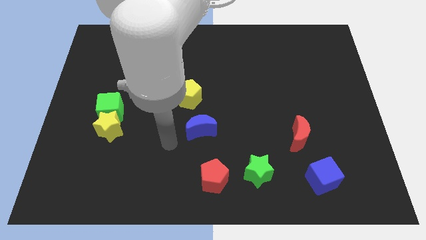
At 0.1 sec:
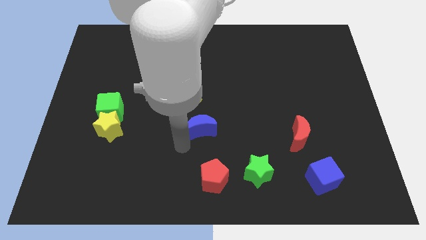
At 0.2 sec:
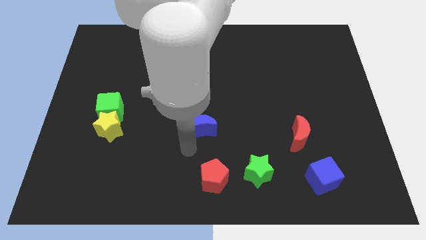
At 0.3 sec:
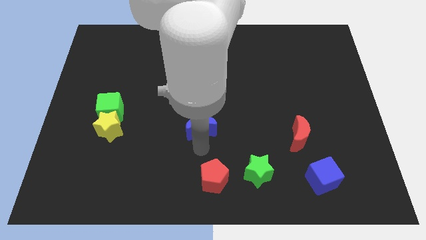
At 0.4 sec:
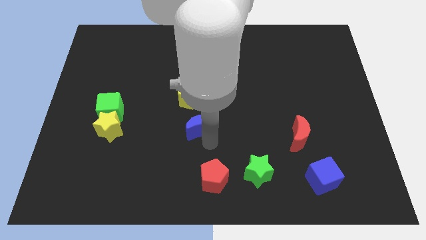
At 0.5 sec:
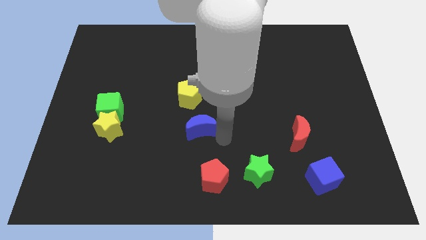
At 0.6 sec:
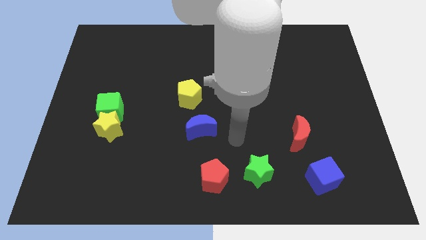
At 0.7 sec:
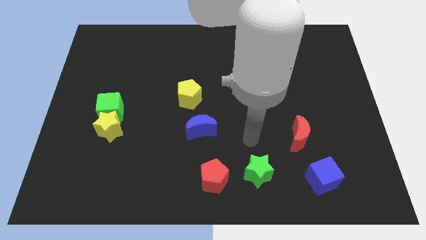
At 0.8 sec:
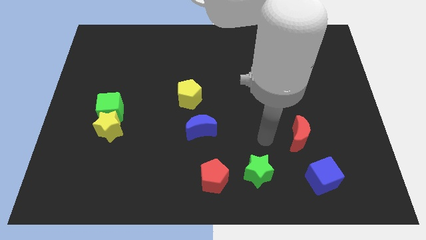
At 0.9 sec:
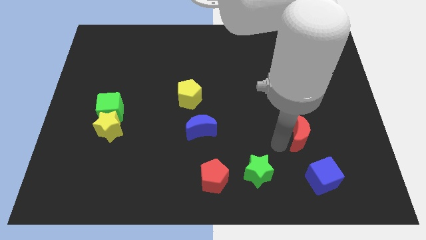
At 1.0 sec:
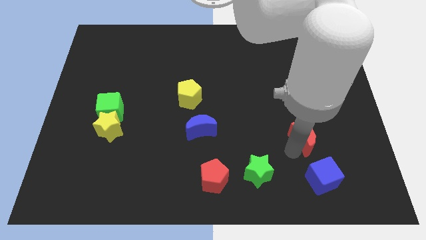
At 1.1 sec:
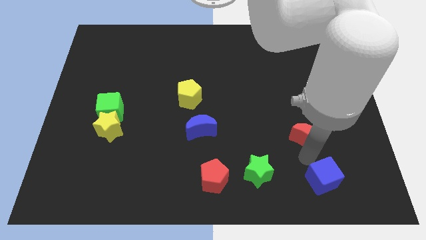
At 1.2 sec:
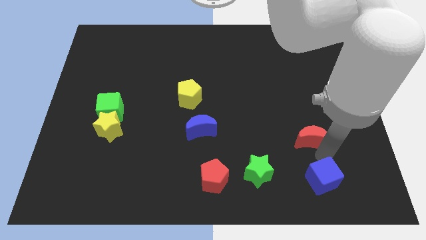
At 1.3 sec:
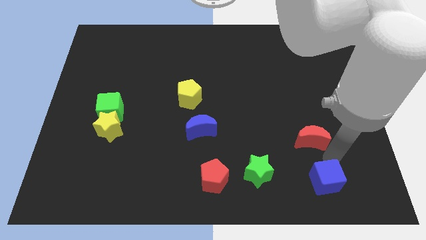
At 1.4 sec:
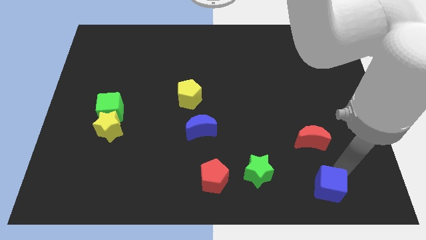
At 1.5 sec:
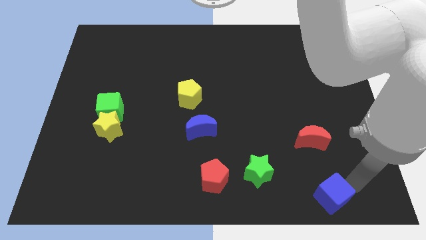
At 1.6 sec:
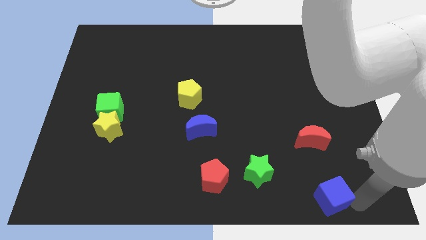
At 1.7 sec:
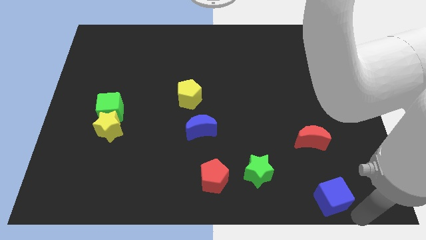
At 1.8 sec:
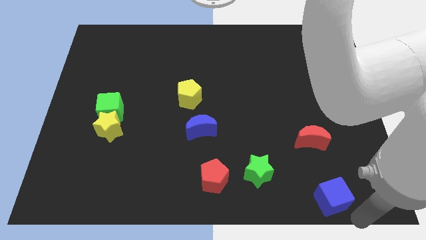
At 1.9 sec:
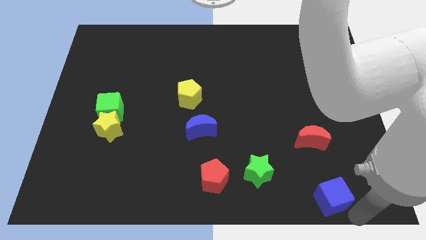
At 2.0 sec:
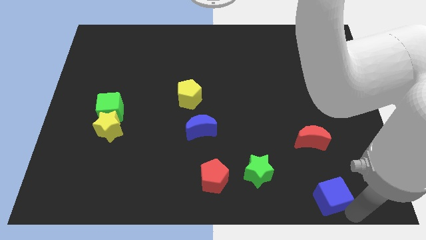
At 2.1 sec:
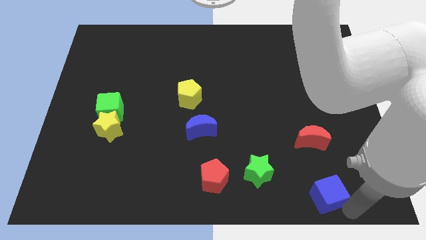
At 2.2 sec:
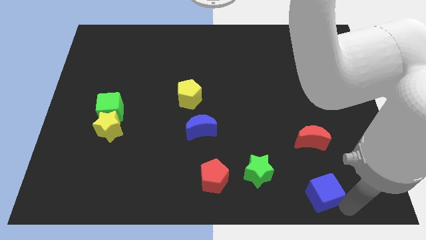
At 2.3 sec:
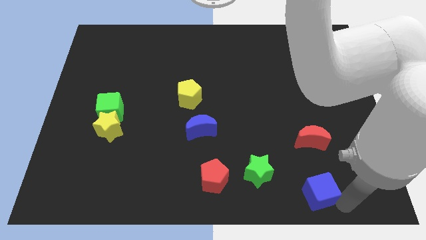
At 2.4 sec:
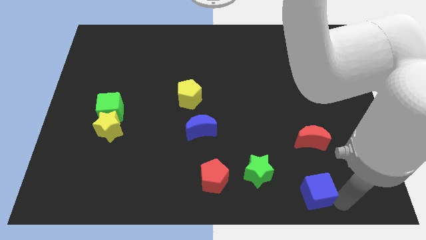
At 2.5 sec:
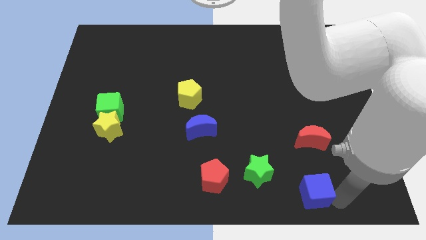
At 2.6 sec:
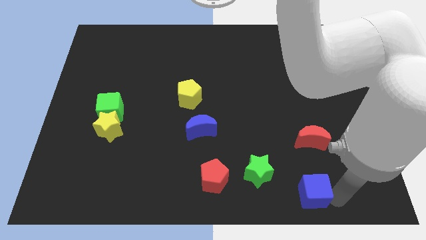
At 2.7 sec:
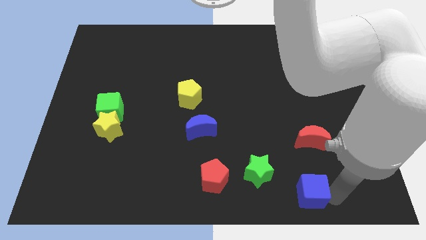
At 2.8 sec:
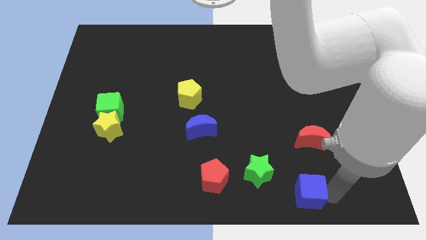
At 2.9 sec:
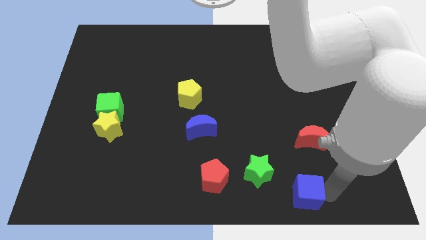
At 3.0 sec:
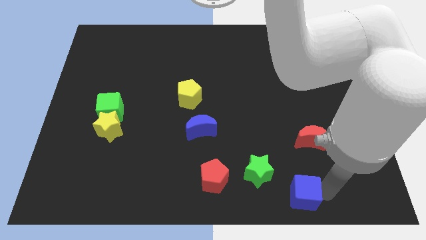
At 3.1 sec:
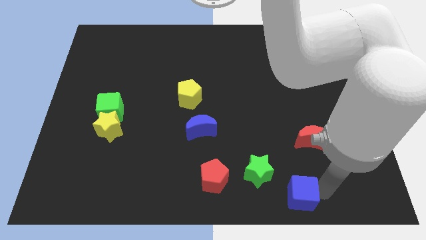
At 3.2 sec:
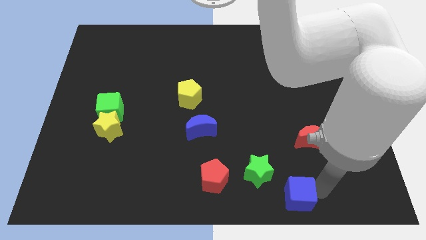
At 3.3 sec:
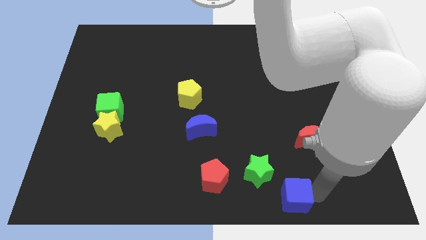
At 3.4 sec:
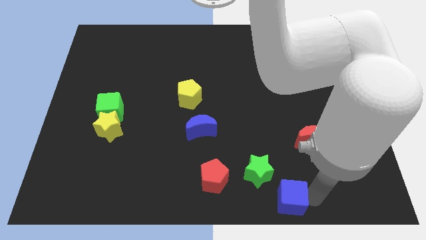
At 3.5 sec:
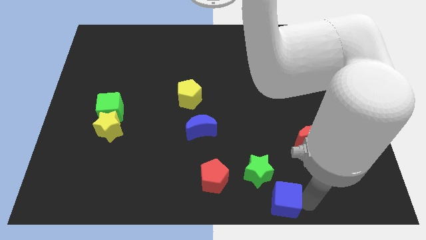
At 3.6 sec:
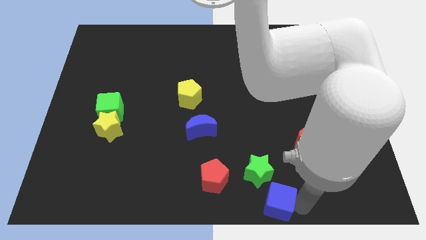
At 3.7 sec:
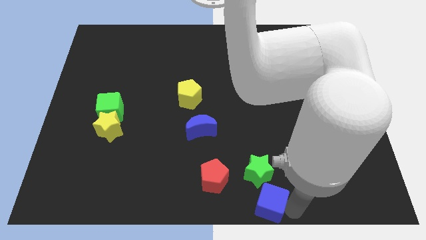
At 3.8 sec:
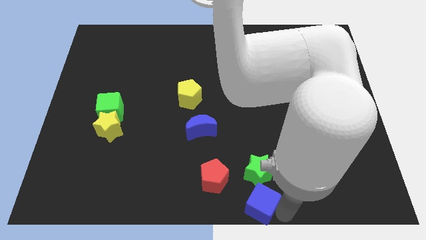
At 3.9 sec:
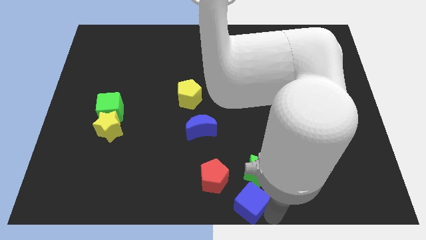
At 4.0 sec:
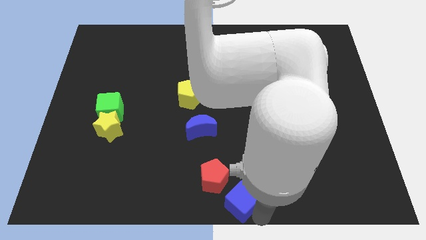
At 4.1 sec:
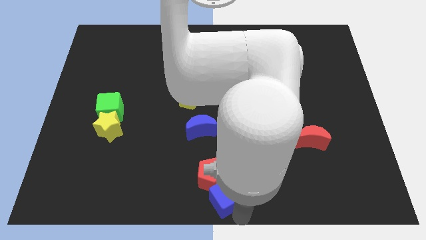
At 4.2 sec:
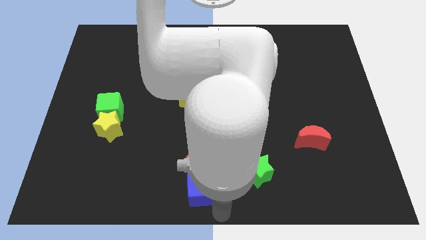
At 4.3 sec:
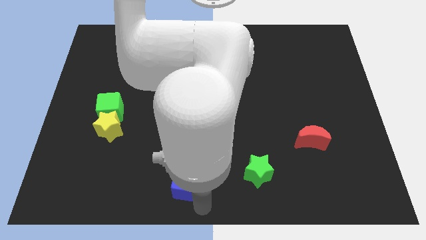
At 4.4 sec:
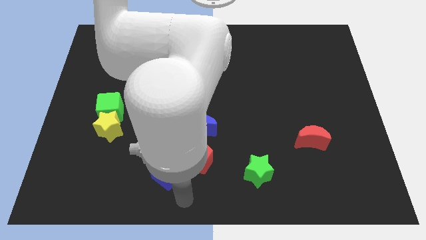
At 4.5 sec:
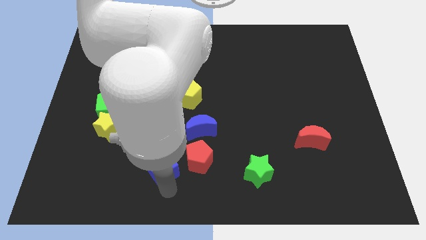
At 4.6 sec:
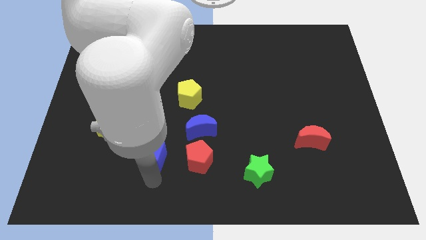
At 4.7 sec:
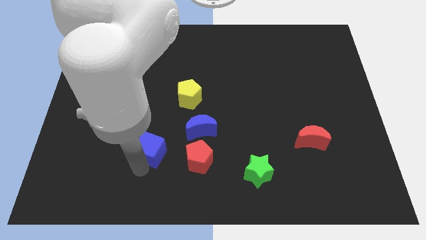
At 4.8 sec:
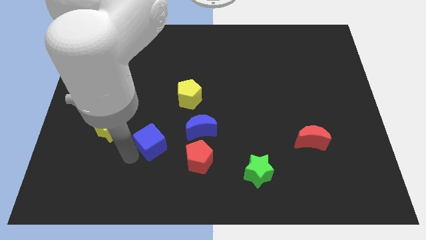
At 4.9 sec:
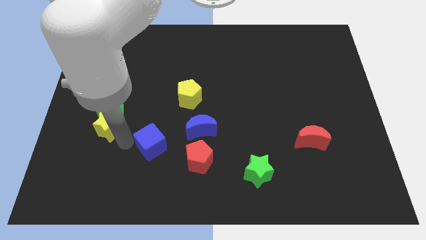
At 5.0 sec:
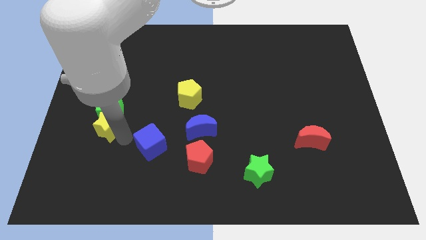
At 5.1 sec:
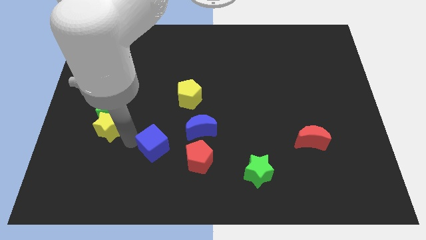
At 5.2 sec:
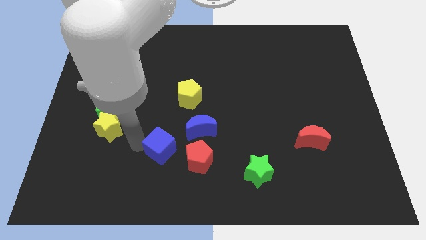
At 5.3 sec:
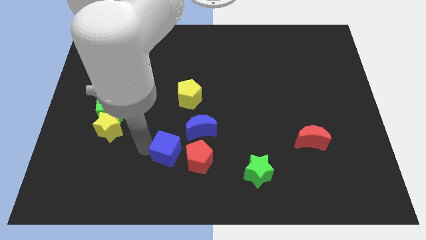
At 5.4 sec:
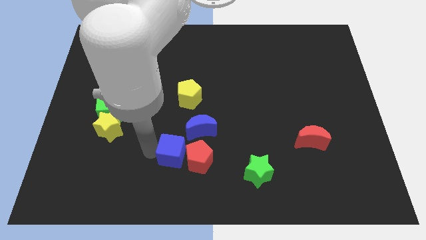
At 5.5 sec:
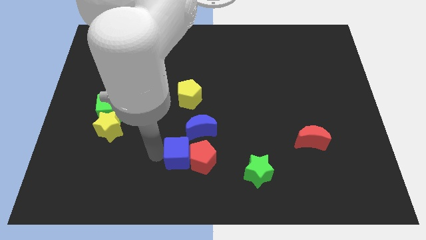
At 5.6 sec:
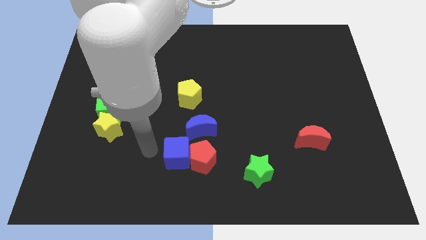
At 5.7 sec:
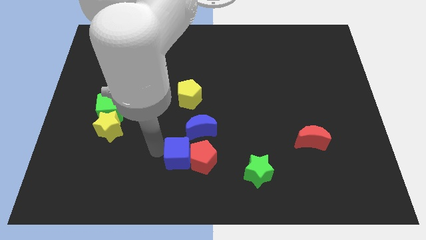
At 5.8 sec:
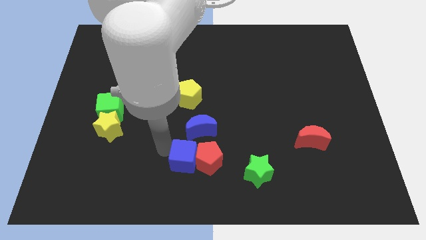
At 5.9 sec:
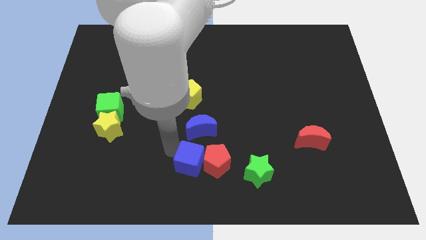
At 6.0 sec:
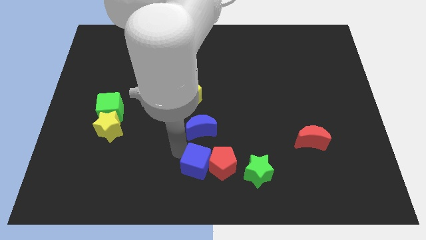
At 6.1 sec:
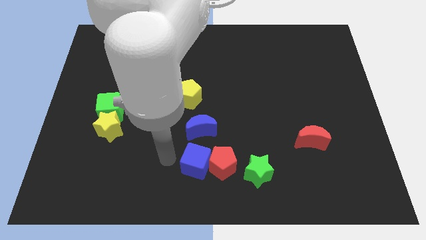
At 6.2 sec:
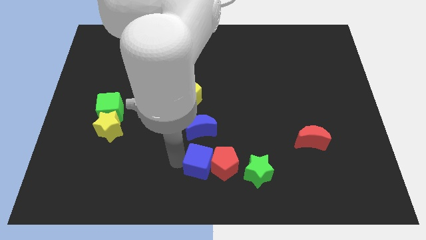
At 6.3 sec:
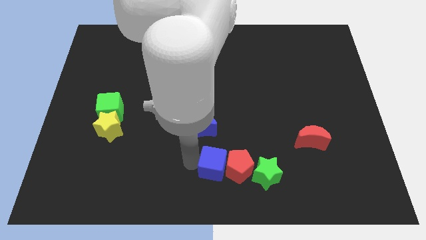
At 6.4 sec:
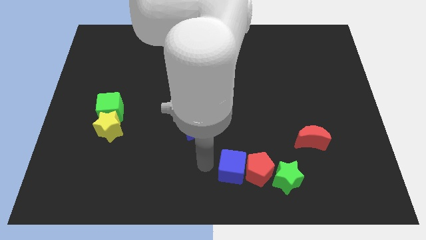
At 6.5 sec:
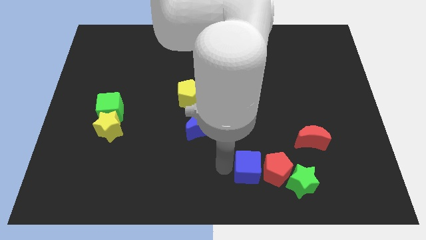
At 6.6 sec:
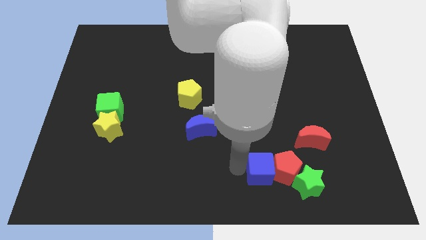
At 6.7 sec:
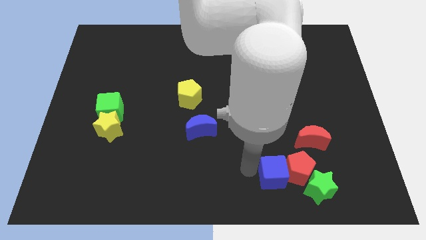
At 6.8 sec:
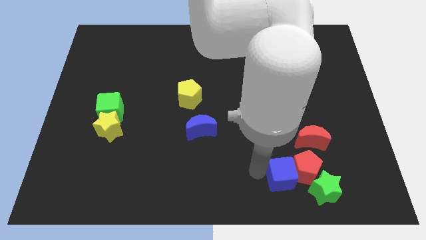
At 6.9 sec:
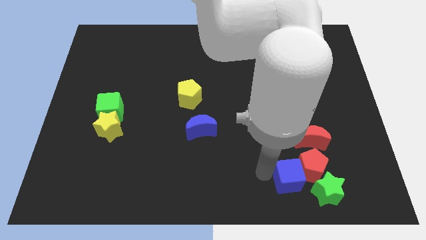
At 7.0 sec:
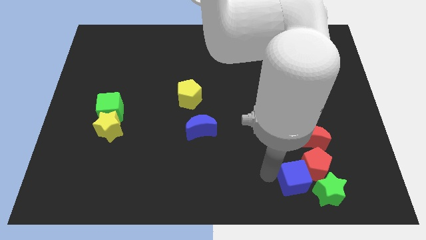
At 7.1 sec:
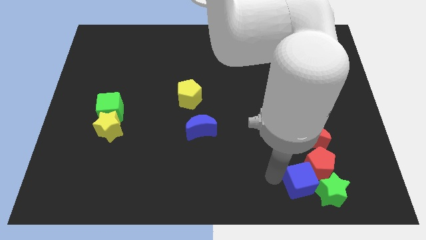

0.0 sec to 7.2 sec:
move the blue cube close to the green star

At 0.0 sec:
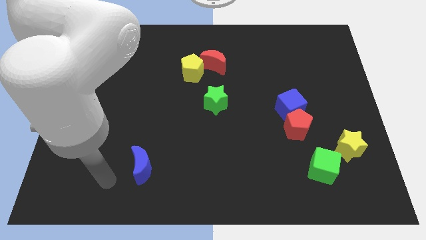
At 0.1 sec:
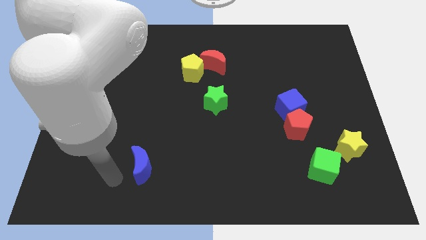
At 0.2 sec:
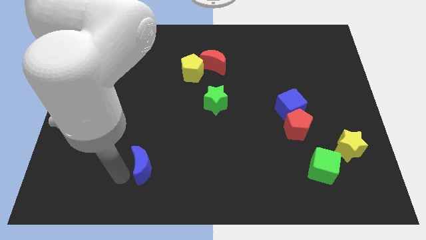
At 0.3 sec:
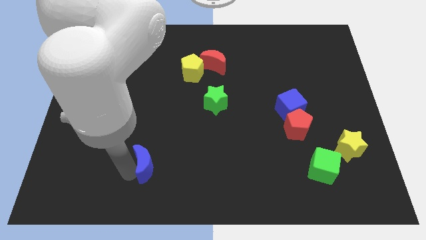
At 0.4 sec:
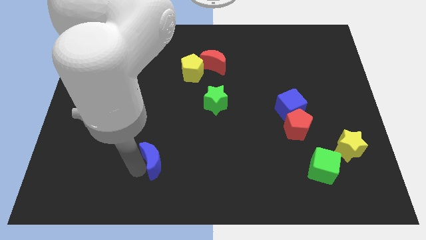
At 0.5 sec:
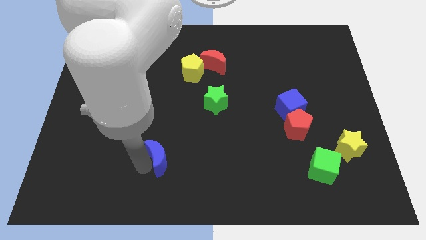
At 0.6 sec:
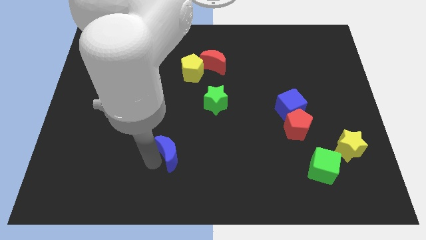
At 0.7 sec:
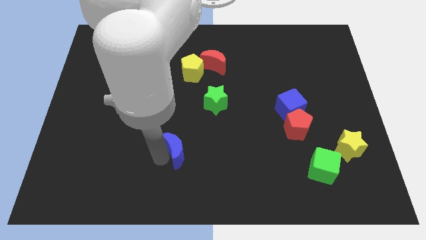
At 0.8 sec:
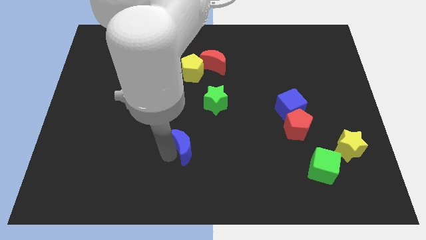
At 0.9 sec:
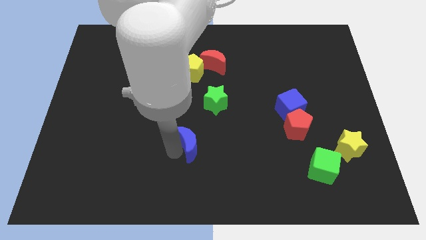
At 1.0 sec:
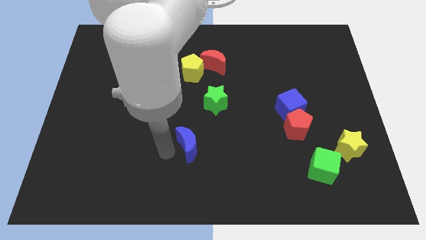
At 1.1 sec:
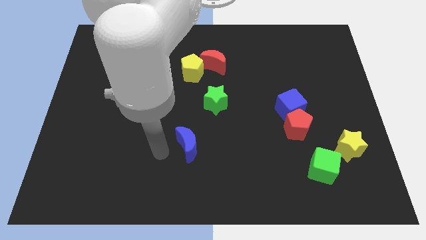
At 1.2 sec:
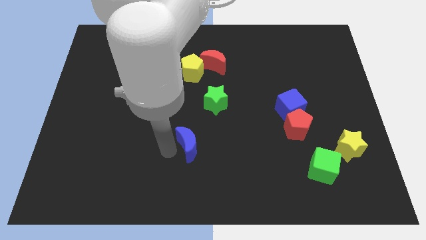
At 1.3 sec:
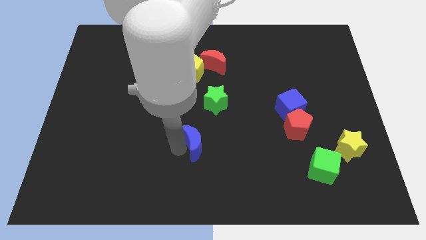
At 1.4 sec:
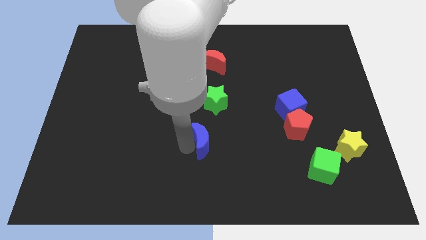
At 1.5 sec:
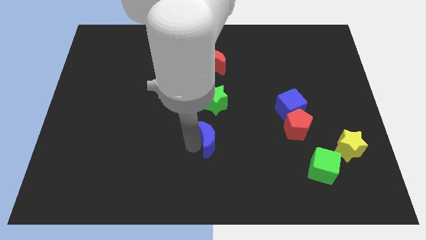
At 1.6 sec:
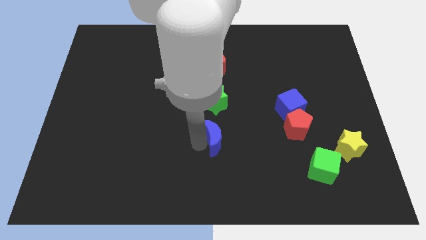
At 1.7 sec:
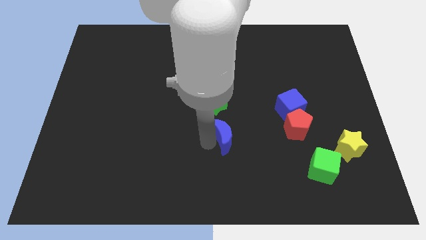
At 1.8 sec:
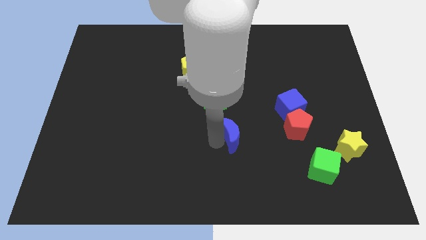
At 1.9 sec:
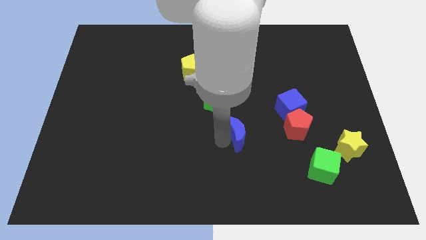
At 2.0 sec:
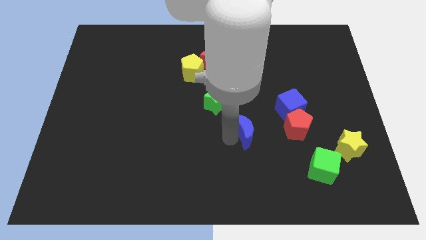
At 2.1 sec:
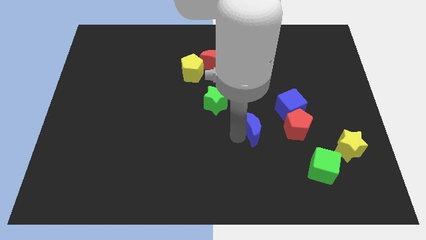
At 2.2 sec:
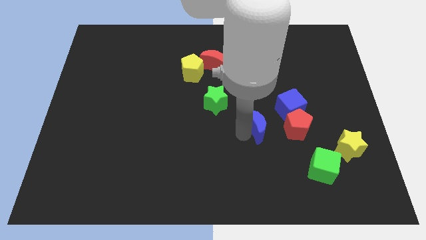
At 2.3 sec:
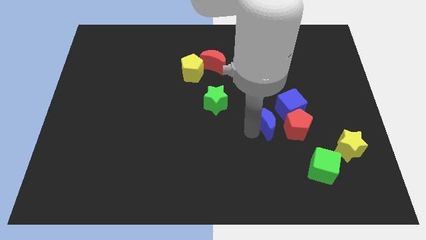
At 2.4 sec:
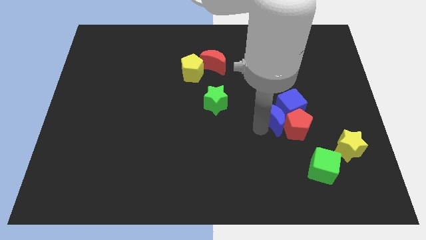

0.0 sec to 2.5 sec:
slide the blue moon next to the blue cube
